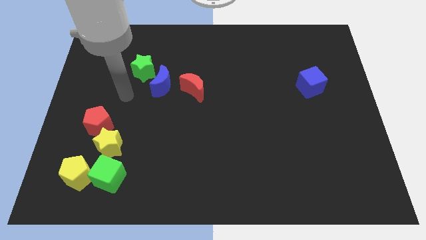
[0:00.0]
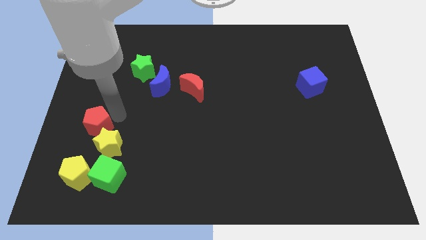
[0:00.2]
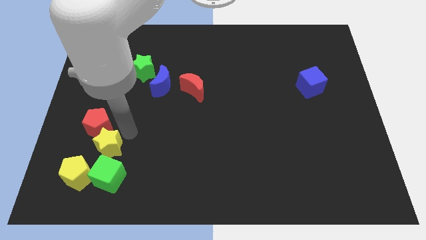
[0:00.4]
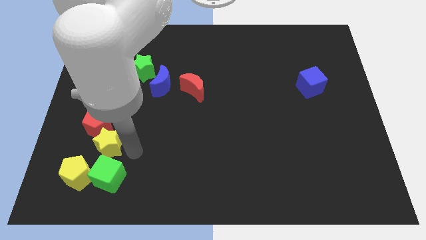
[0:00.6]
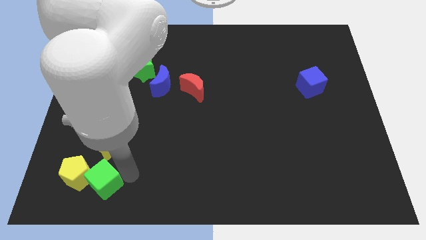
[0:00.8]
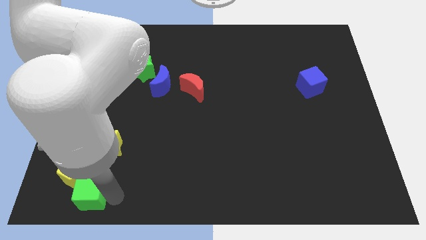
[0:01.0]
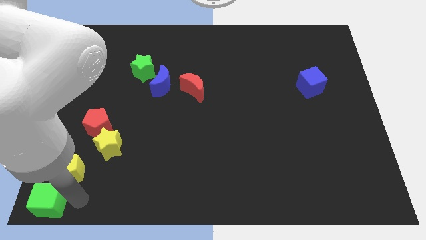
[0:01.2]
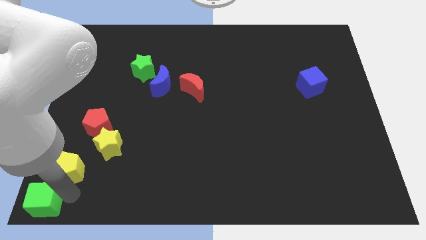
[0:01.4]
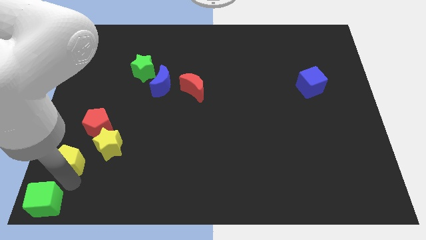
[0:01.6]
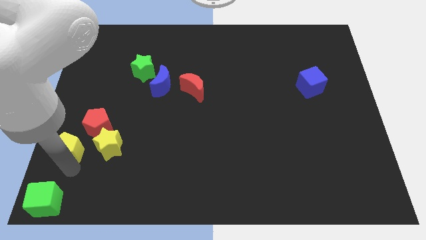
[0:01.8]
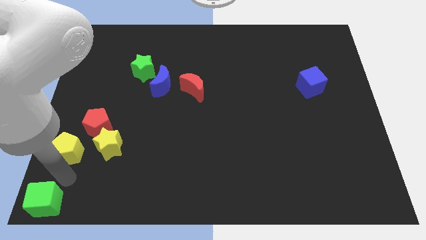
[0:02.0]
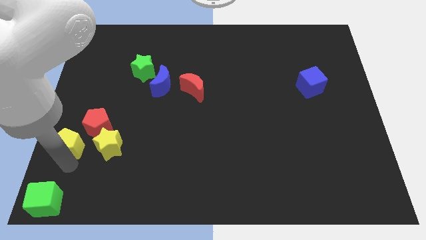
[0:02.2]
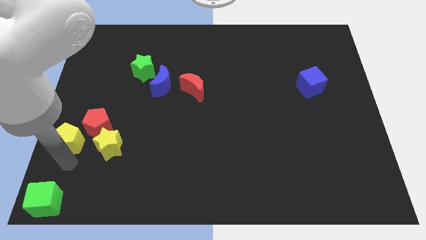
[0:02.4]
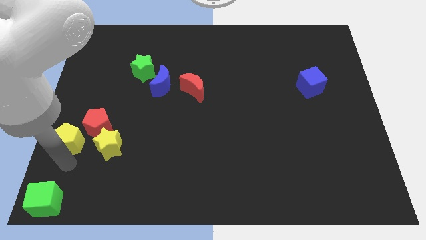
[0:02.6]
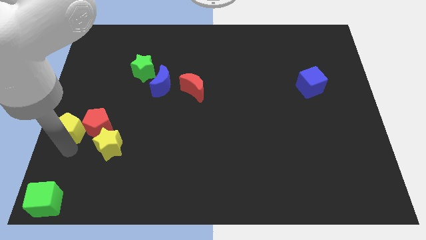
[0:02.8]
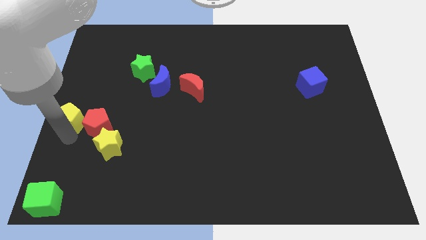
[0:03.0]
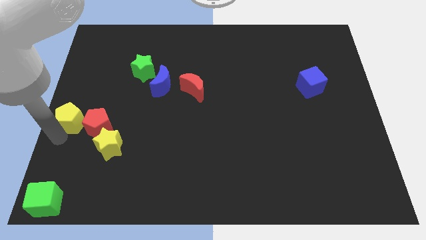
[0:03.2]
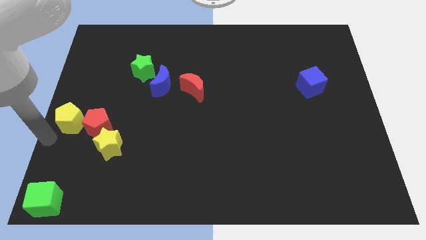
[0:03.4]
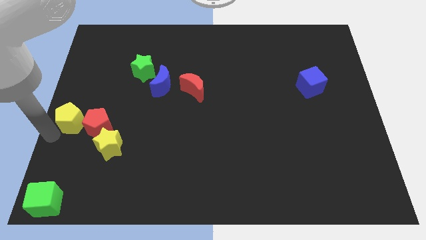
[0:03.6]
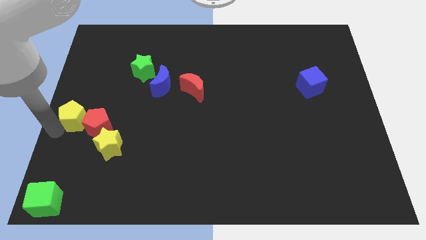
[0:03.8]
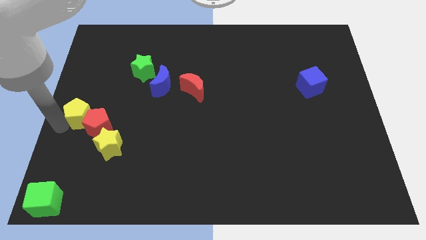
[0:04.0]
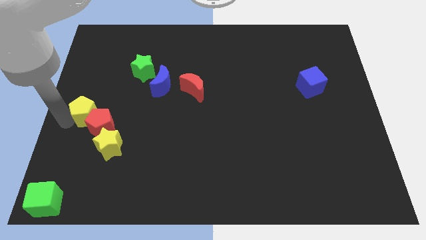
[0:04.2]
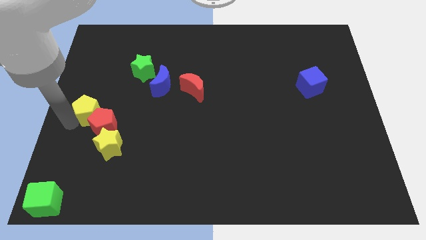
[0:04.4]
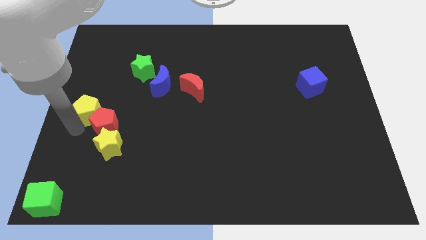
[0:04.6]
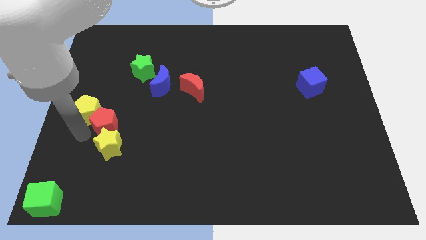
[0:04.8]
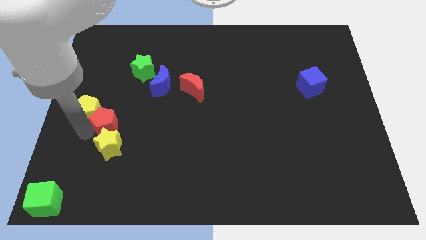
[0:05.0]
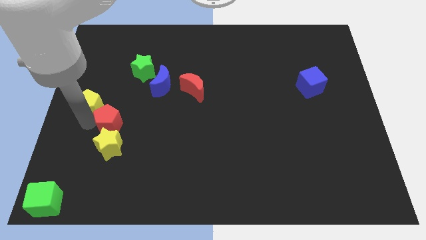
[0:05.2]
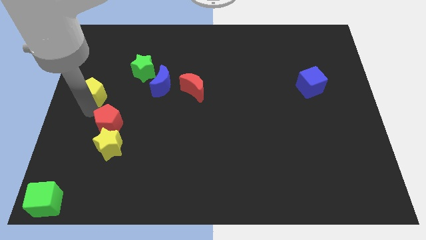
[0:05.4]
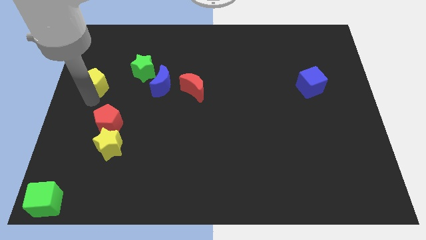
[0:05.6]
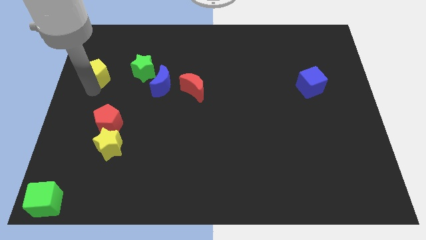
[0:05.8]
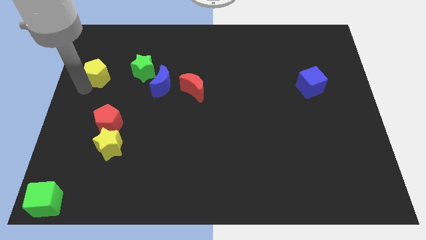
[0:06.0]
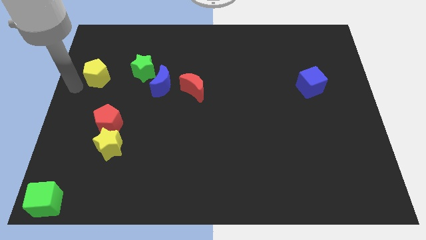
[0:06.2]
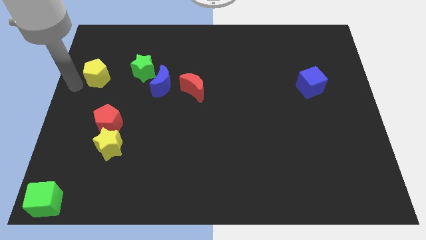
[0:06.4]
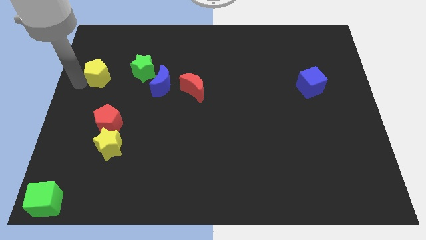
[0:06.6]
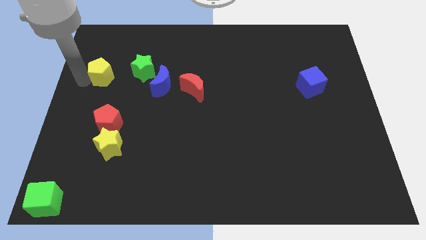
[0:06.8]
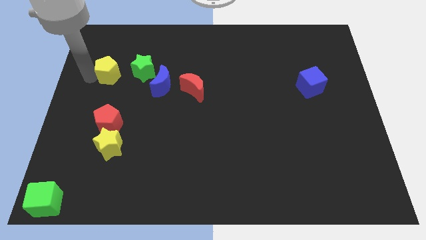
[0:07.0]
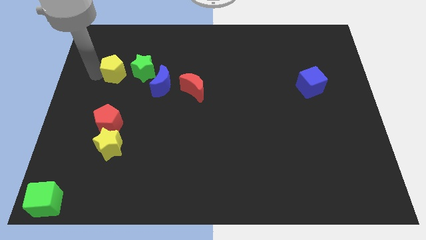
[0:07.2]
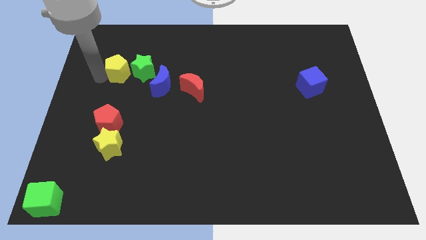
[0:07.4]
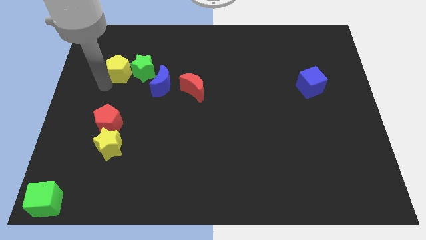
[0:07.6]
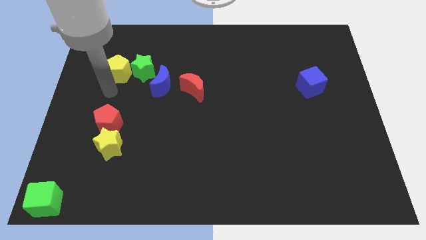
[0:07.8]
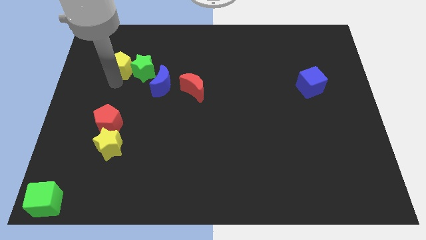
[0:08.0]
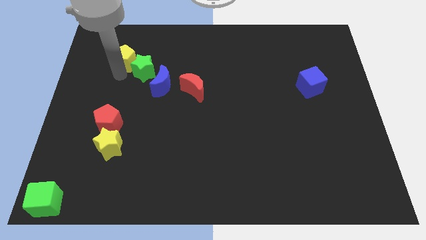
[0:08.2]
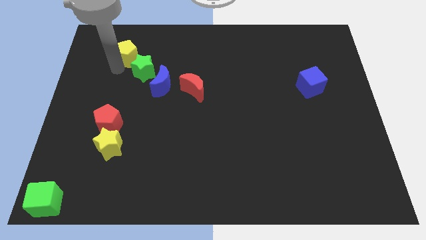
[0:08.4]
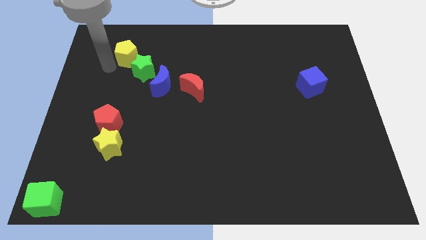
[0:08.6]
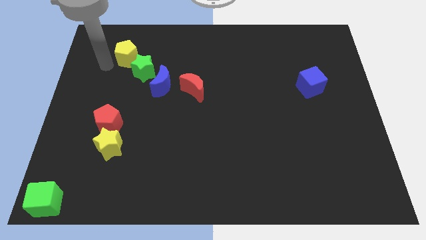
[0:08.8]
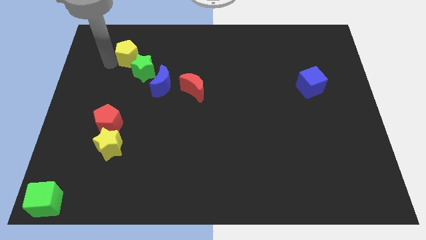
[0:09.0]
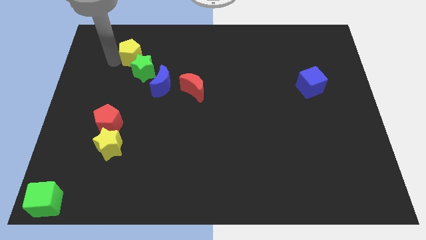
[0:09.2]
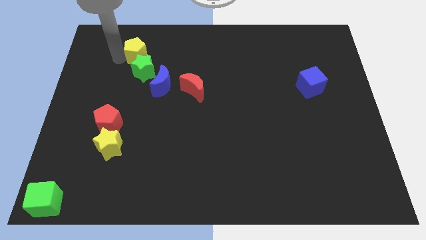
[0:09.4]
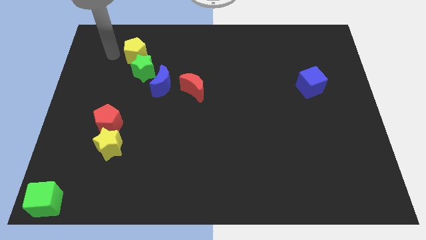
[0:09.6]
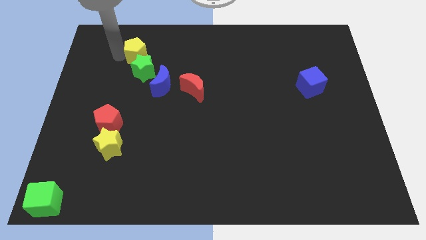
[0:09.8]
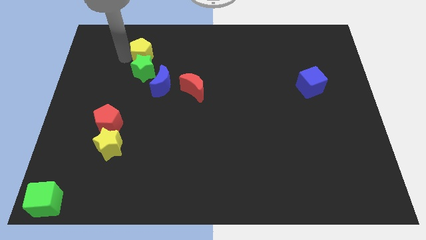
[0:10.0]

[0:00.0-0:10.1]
put the yellow pentagon to the top right side of the green star

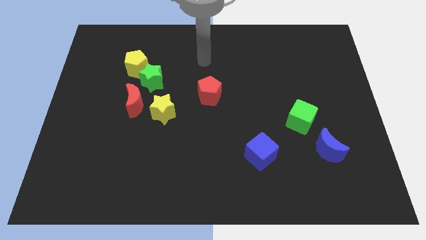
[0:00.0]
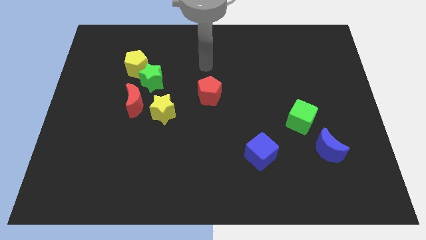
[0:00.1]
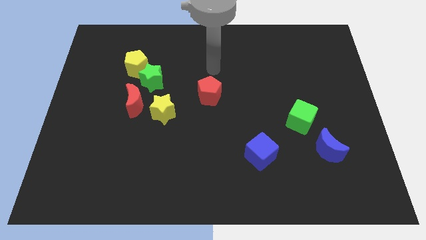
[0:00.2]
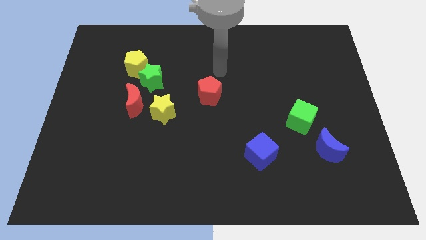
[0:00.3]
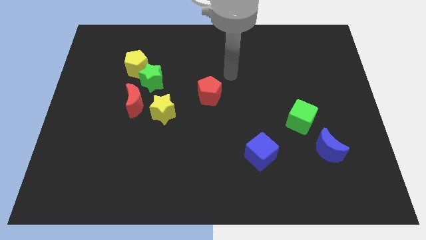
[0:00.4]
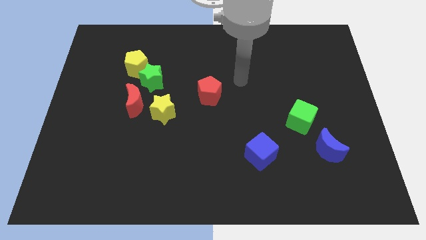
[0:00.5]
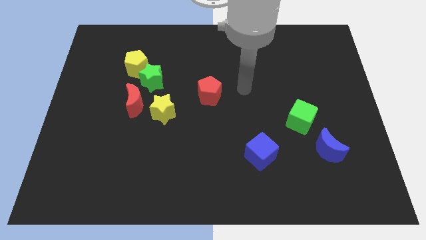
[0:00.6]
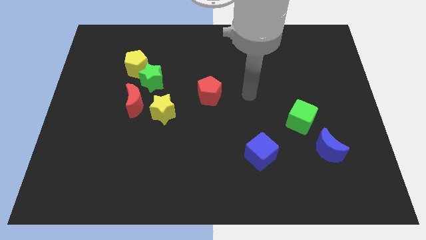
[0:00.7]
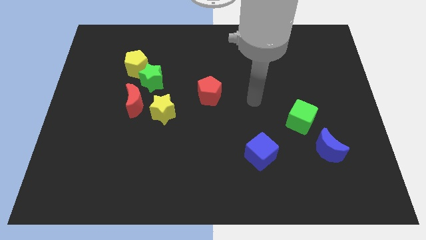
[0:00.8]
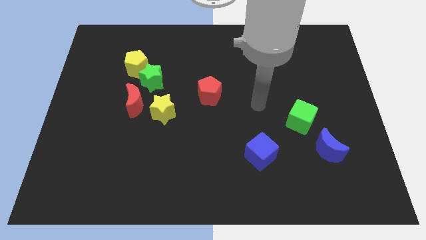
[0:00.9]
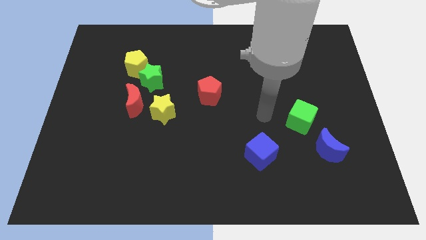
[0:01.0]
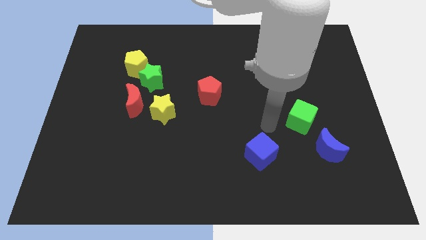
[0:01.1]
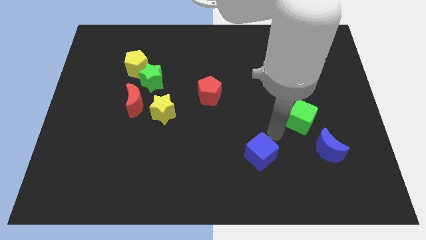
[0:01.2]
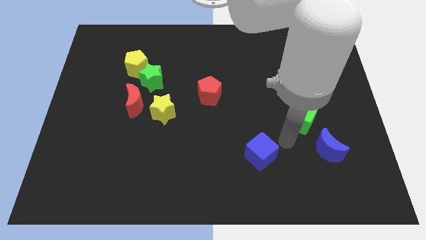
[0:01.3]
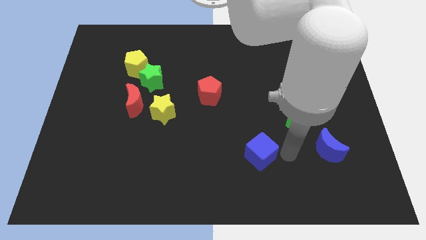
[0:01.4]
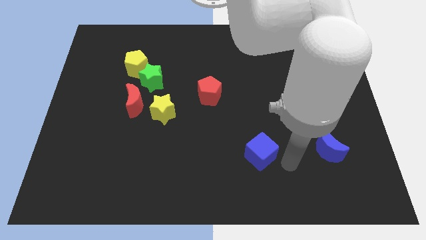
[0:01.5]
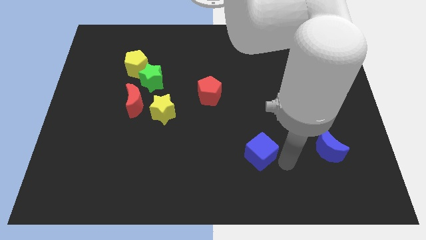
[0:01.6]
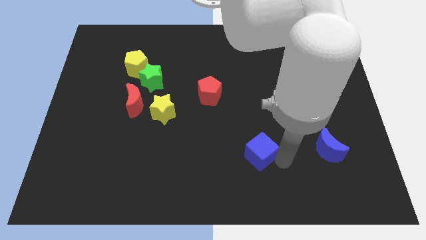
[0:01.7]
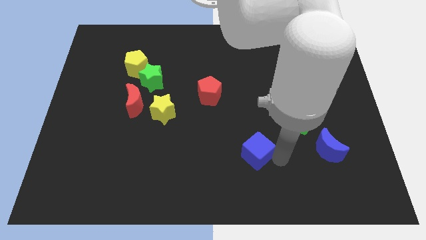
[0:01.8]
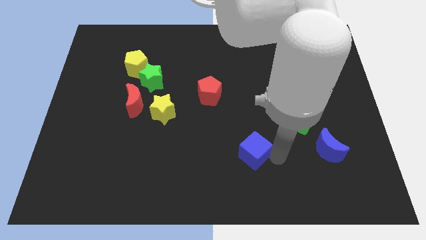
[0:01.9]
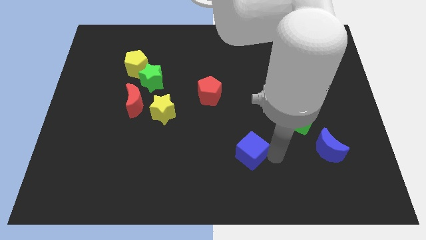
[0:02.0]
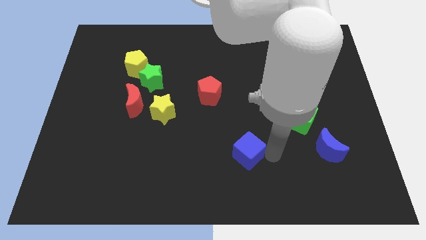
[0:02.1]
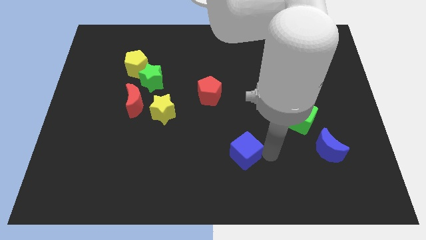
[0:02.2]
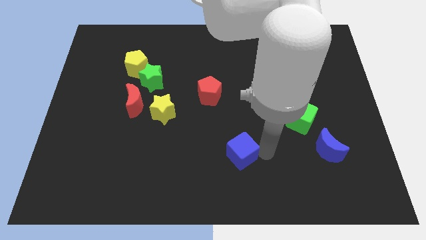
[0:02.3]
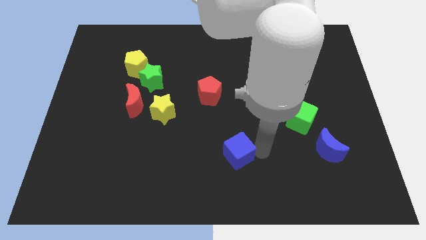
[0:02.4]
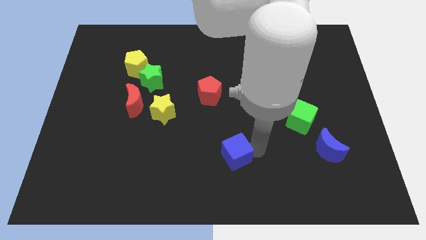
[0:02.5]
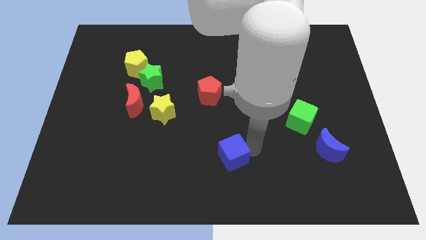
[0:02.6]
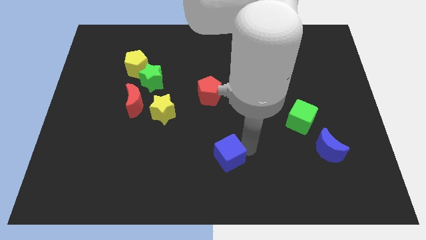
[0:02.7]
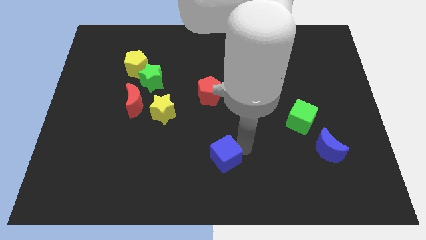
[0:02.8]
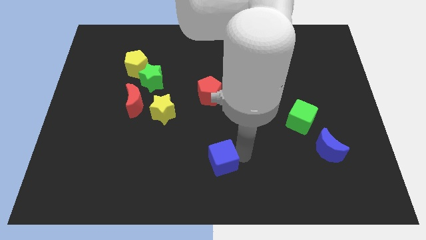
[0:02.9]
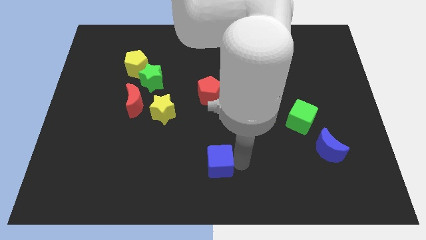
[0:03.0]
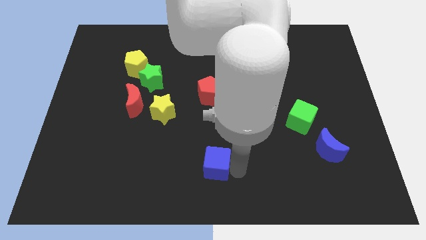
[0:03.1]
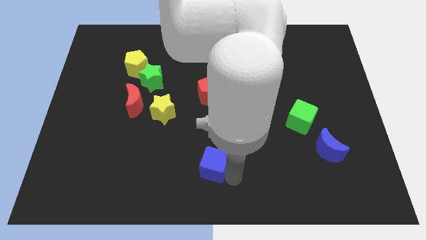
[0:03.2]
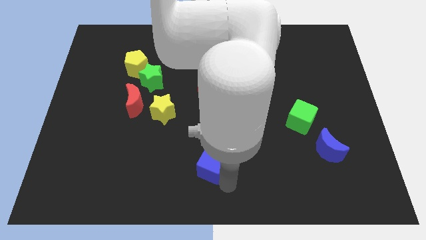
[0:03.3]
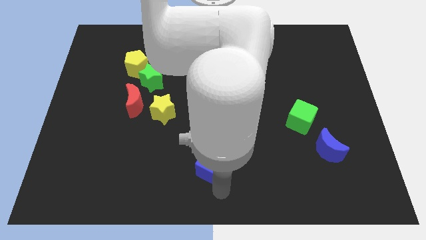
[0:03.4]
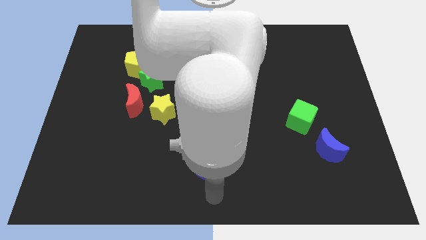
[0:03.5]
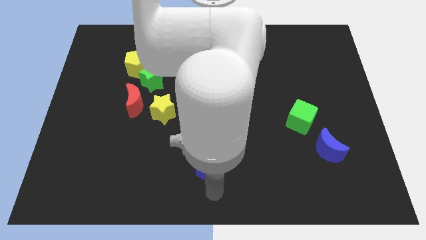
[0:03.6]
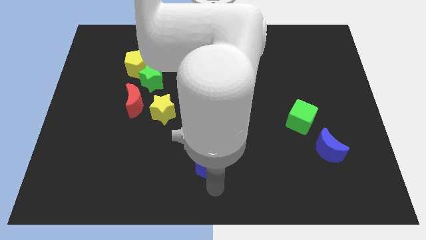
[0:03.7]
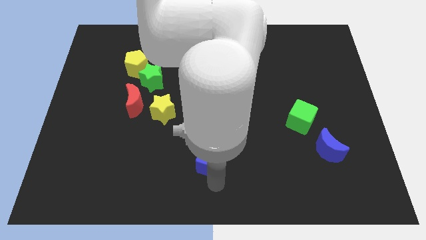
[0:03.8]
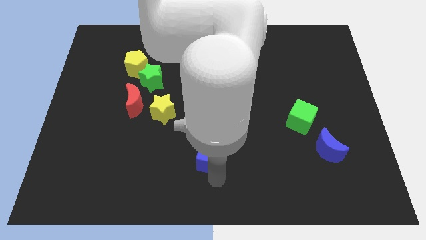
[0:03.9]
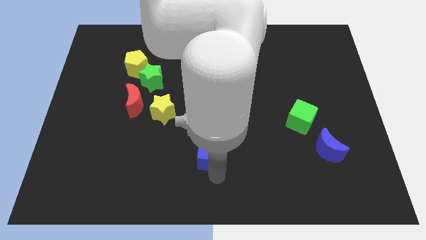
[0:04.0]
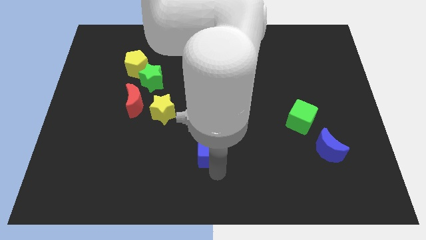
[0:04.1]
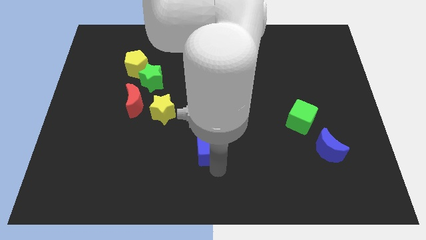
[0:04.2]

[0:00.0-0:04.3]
slide the blue cube below the red pentagon
